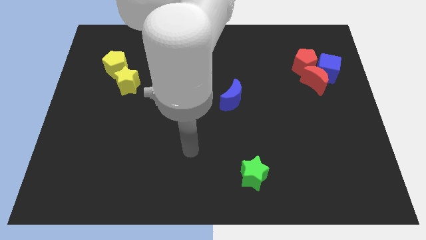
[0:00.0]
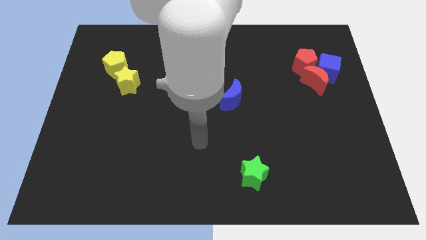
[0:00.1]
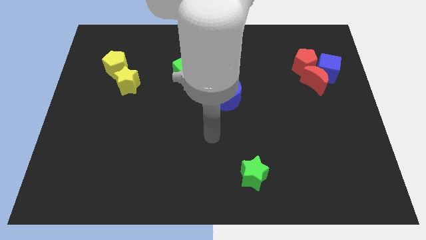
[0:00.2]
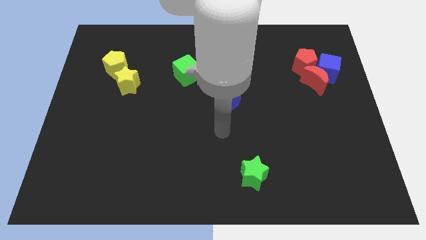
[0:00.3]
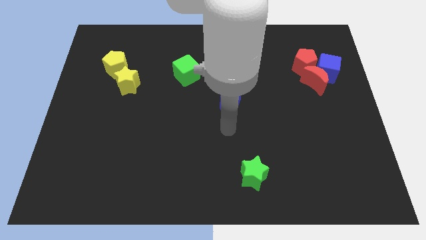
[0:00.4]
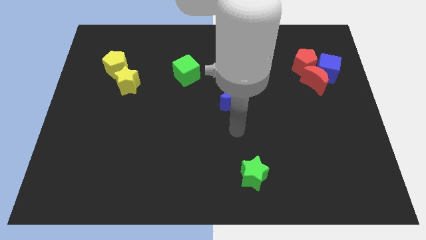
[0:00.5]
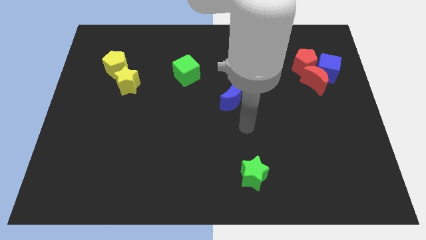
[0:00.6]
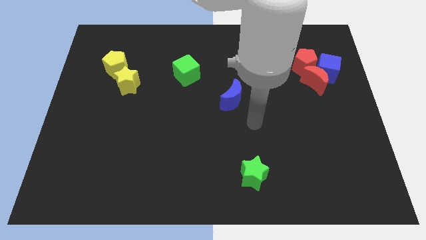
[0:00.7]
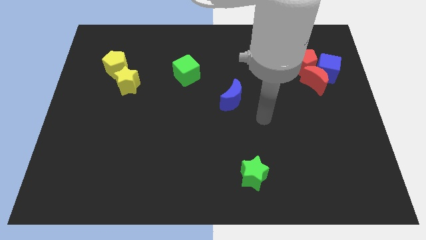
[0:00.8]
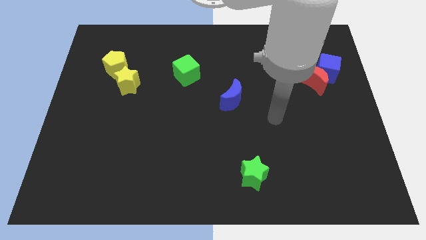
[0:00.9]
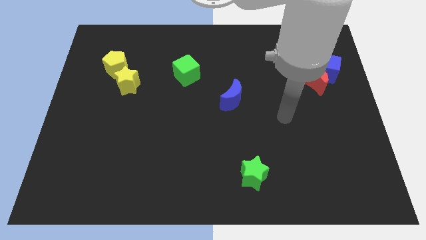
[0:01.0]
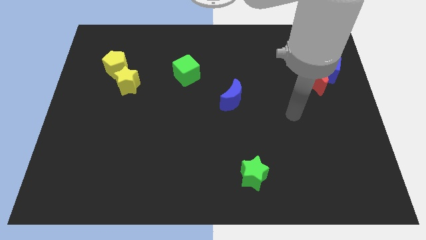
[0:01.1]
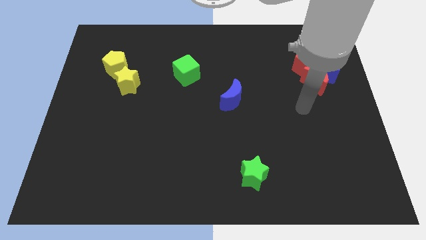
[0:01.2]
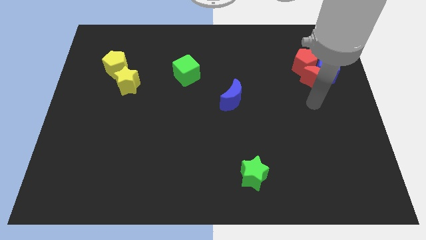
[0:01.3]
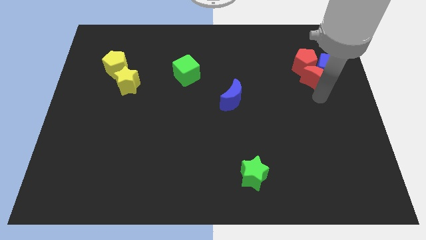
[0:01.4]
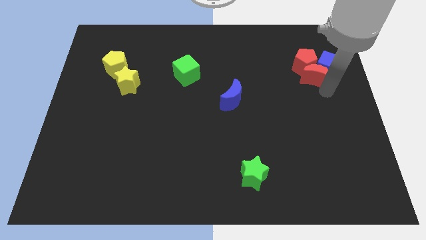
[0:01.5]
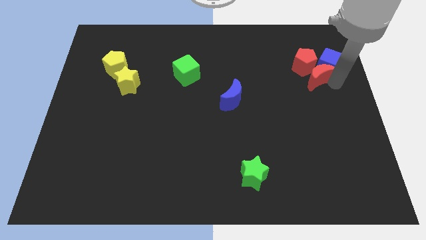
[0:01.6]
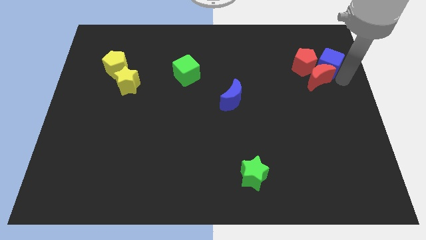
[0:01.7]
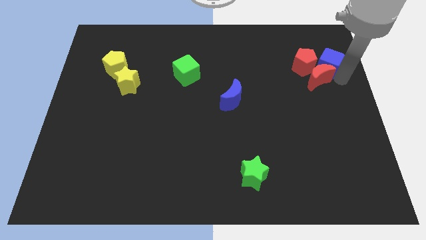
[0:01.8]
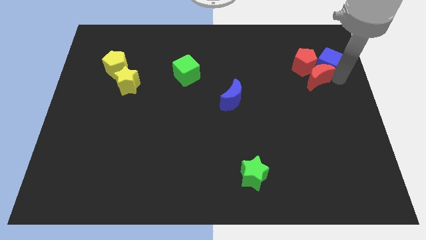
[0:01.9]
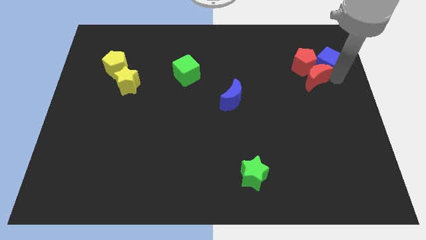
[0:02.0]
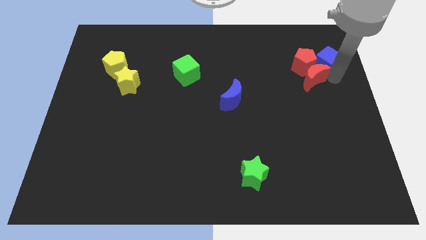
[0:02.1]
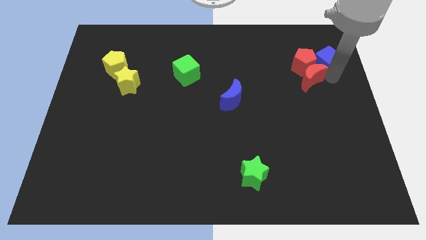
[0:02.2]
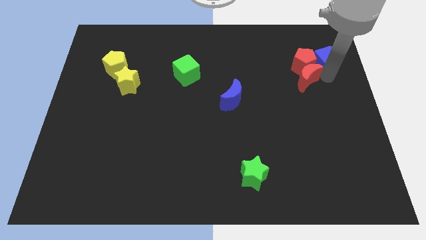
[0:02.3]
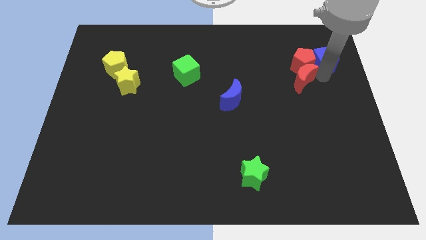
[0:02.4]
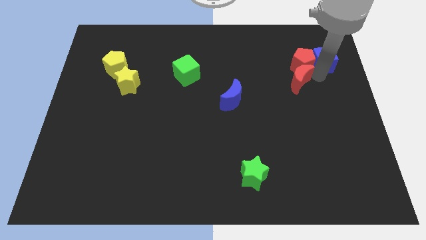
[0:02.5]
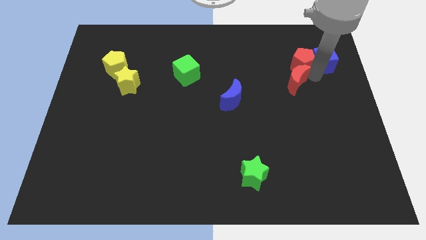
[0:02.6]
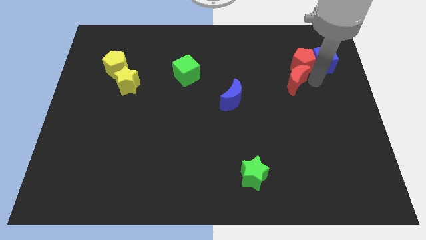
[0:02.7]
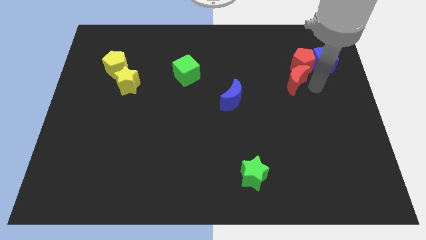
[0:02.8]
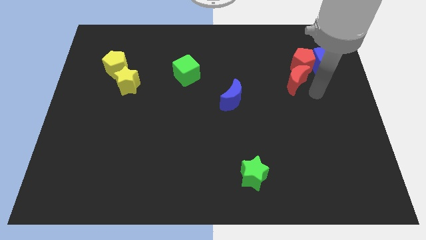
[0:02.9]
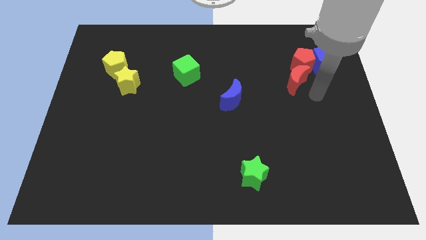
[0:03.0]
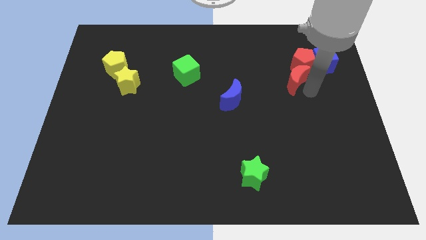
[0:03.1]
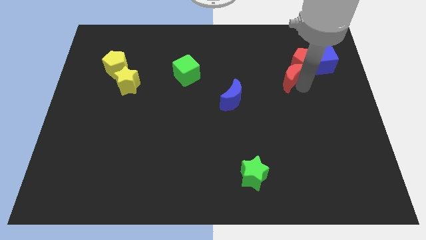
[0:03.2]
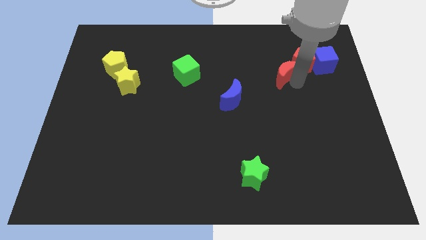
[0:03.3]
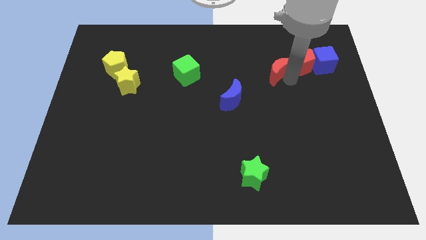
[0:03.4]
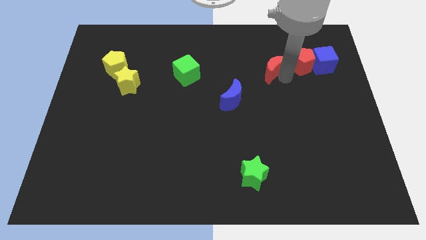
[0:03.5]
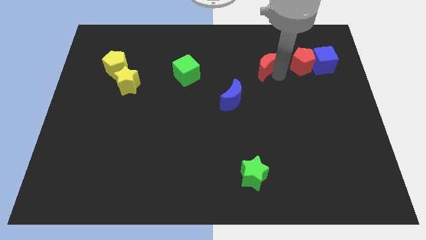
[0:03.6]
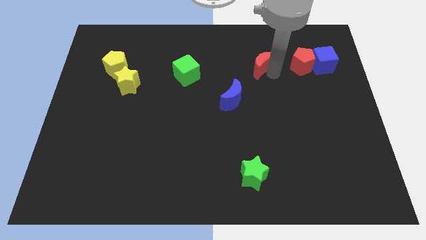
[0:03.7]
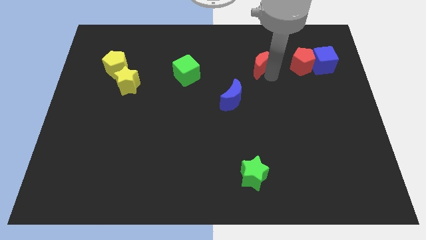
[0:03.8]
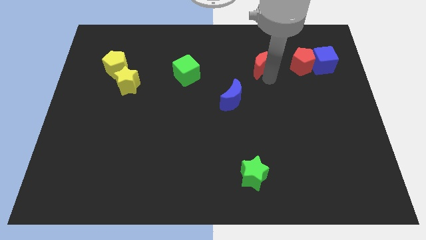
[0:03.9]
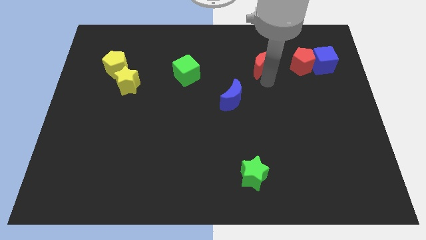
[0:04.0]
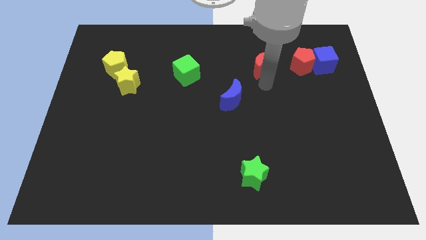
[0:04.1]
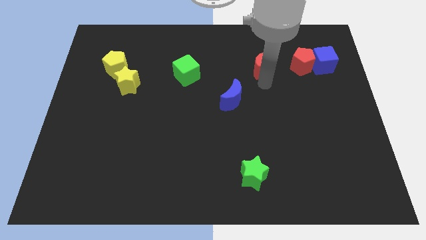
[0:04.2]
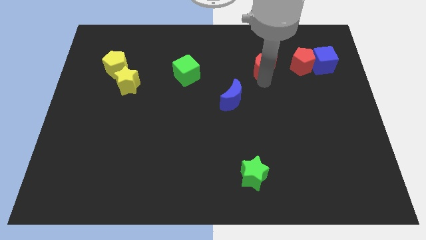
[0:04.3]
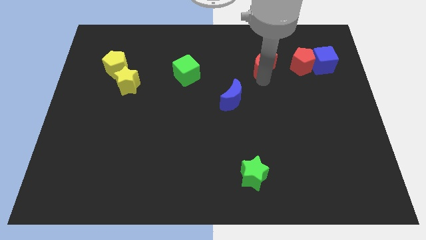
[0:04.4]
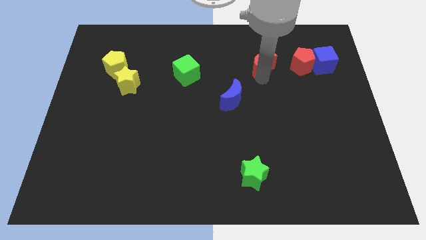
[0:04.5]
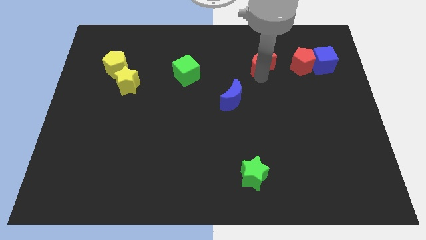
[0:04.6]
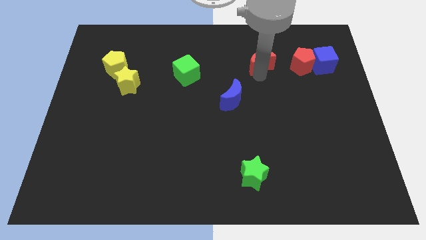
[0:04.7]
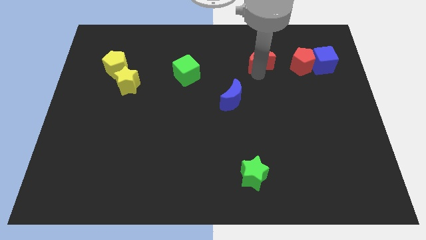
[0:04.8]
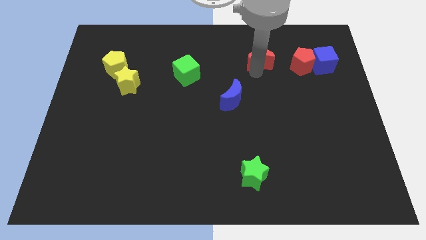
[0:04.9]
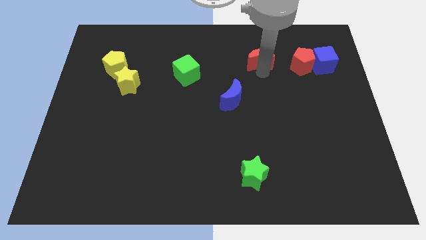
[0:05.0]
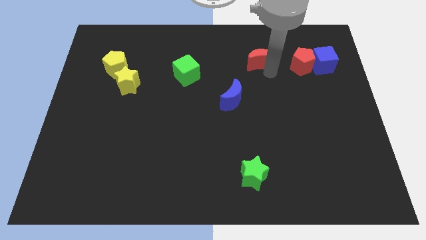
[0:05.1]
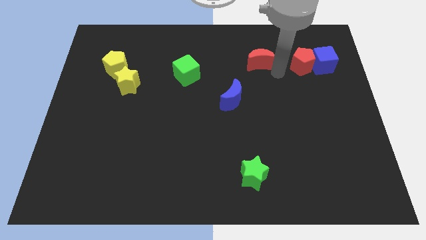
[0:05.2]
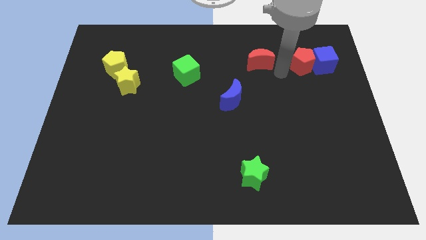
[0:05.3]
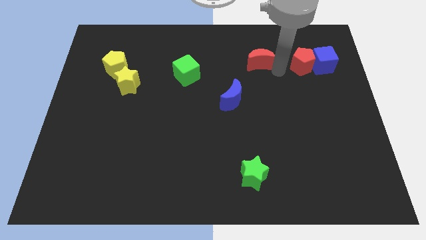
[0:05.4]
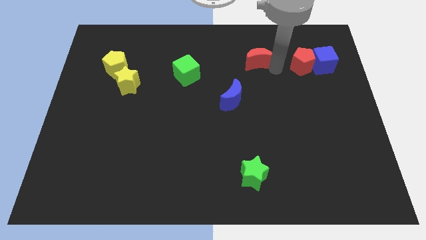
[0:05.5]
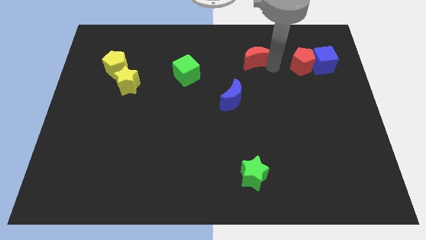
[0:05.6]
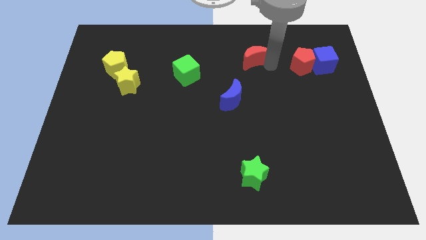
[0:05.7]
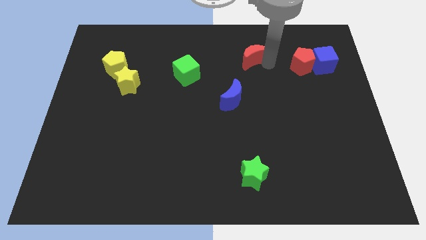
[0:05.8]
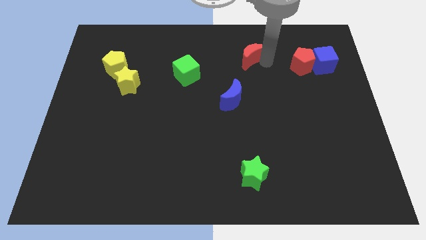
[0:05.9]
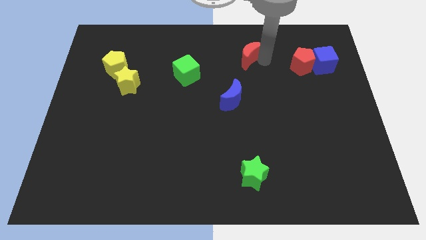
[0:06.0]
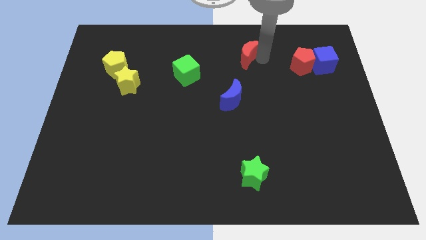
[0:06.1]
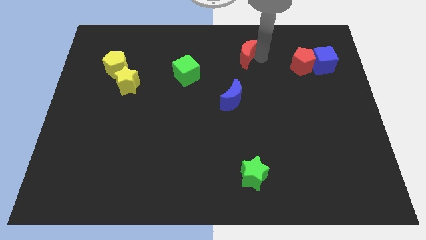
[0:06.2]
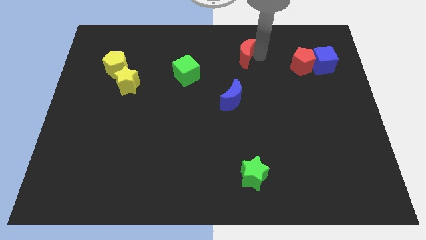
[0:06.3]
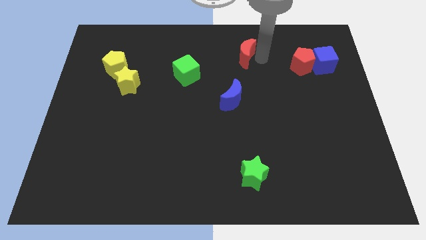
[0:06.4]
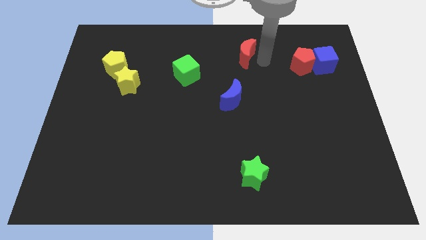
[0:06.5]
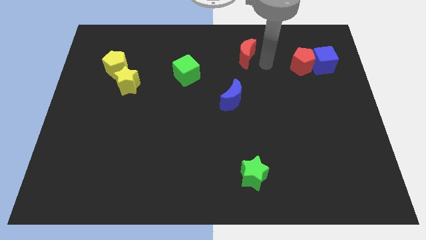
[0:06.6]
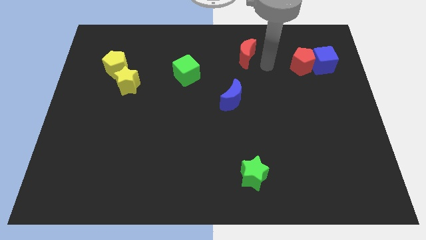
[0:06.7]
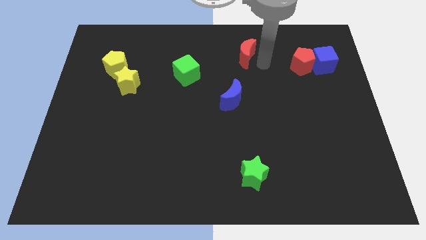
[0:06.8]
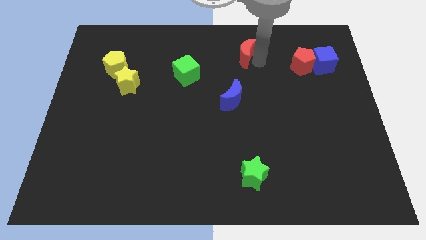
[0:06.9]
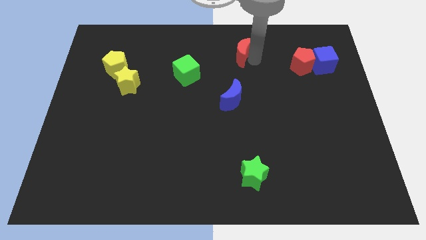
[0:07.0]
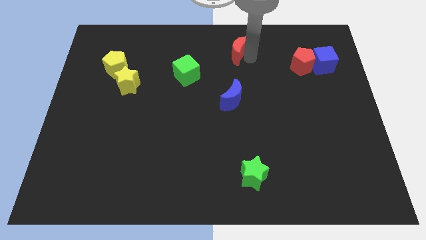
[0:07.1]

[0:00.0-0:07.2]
put the red moon to the towards your base
